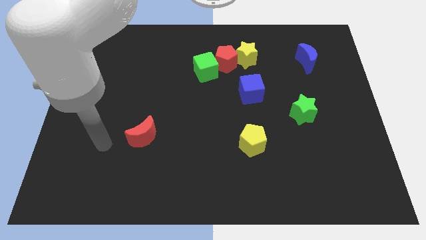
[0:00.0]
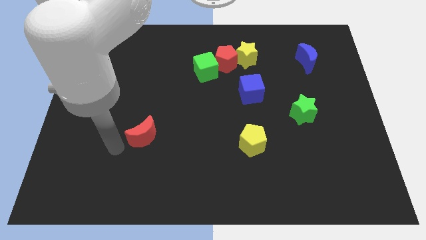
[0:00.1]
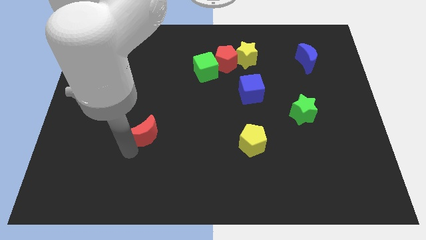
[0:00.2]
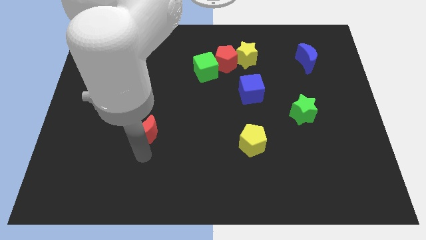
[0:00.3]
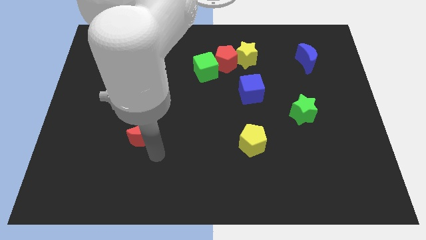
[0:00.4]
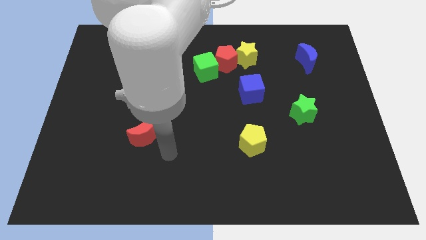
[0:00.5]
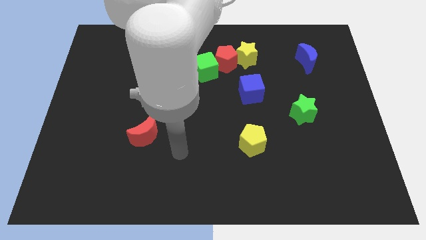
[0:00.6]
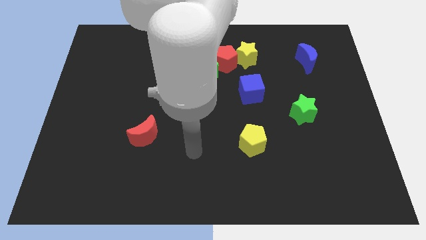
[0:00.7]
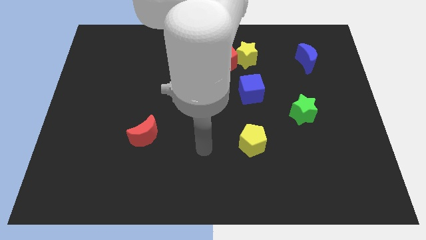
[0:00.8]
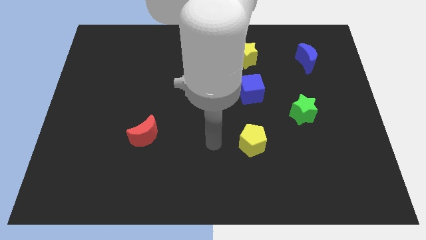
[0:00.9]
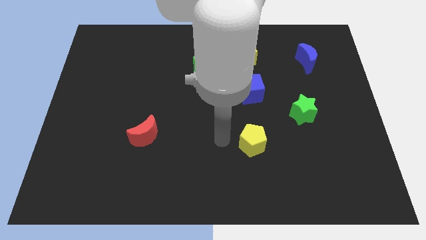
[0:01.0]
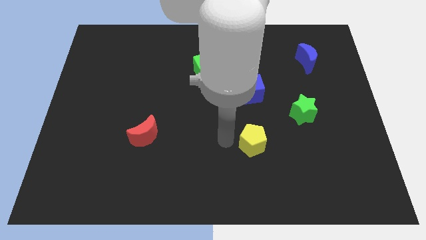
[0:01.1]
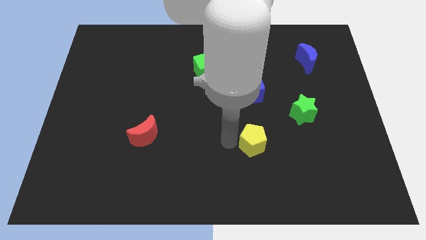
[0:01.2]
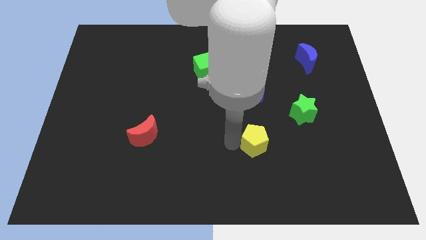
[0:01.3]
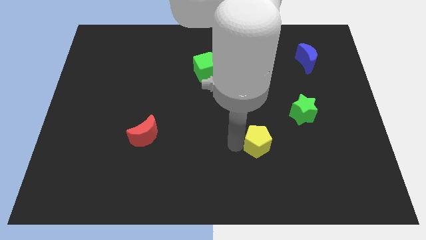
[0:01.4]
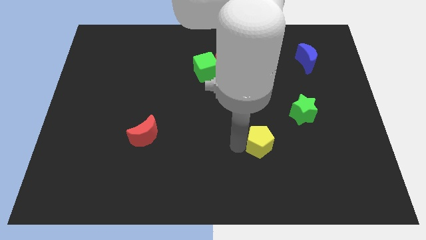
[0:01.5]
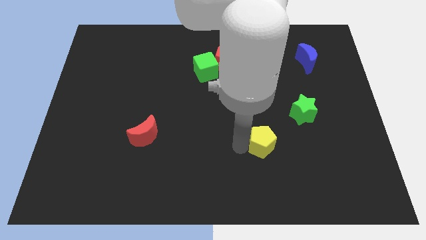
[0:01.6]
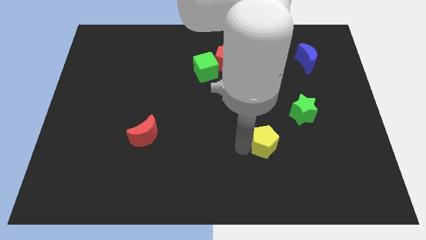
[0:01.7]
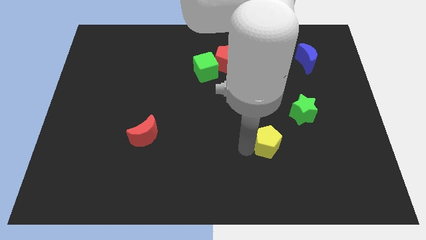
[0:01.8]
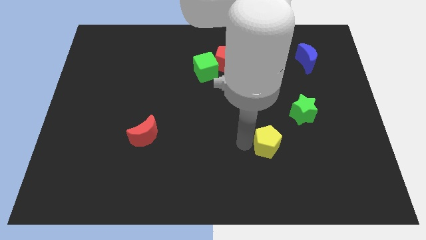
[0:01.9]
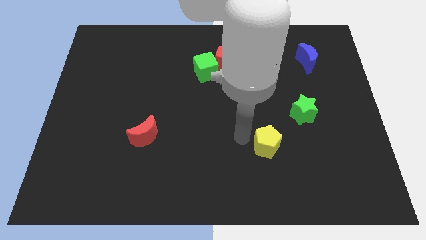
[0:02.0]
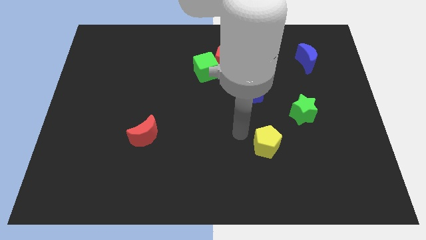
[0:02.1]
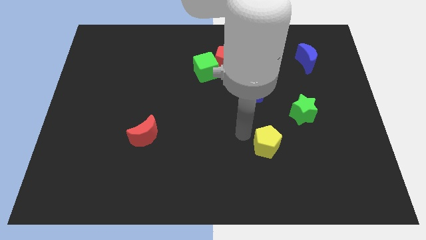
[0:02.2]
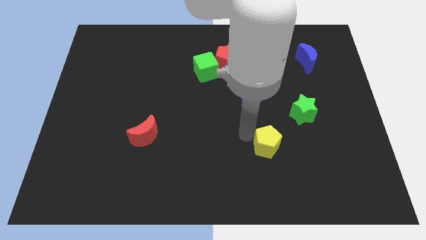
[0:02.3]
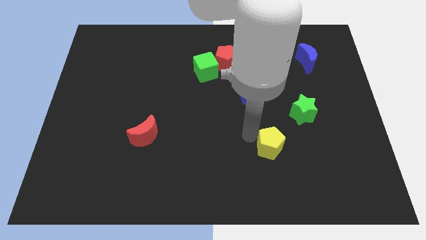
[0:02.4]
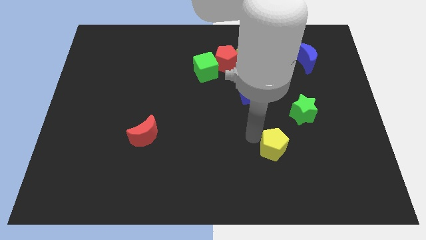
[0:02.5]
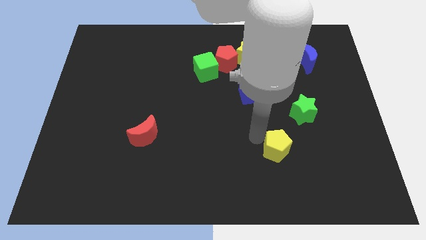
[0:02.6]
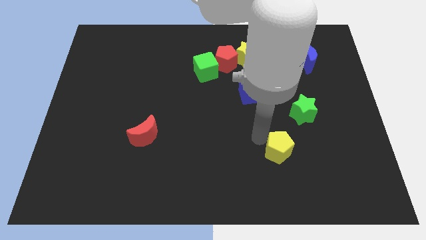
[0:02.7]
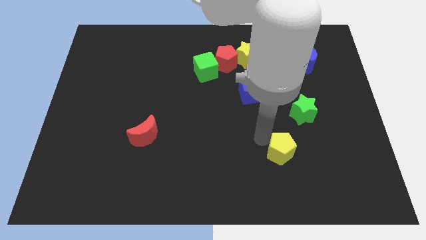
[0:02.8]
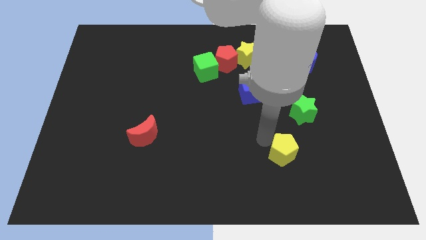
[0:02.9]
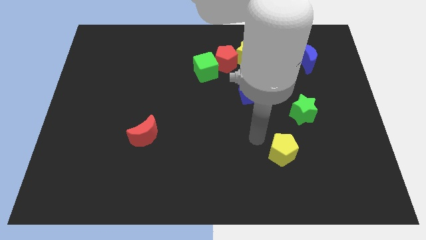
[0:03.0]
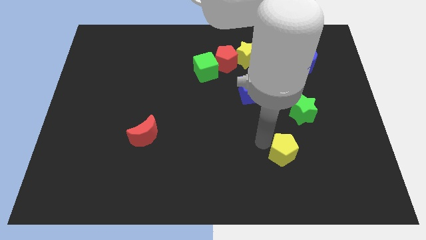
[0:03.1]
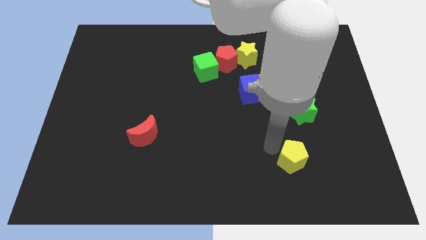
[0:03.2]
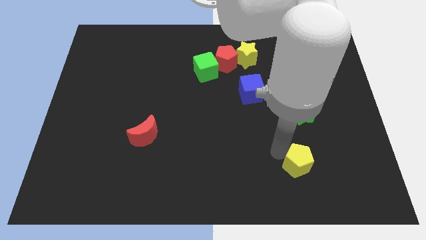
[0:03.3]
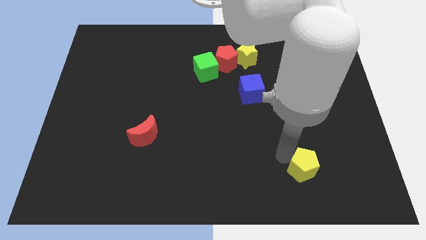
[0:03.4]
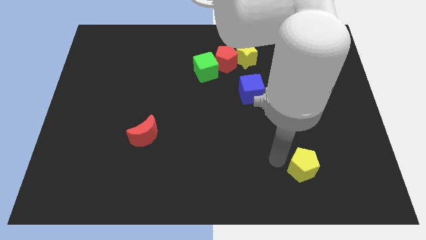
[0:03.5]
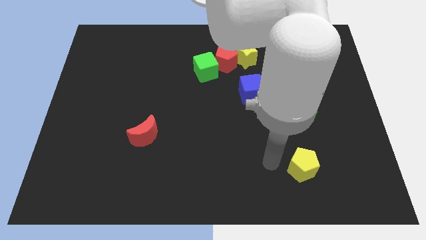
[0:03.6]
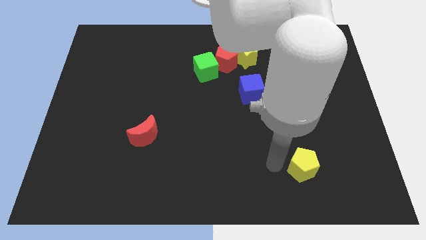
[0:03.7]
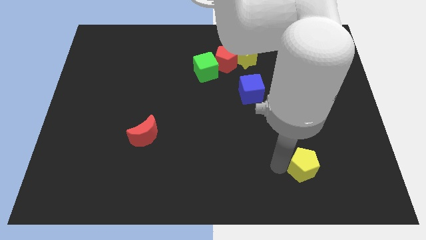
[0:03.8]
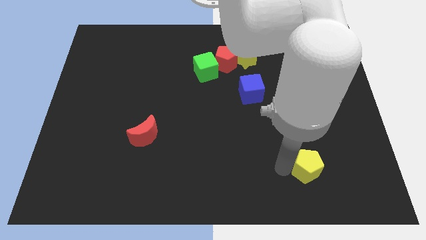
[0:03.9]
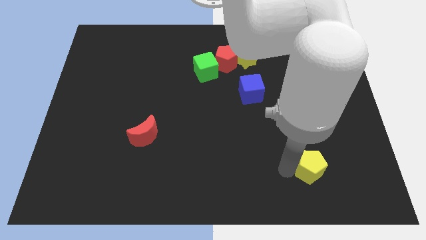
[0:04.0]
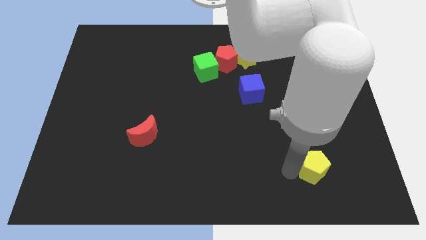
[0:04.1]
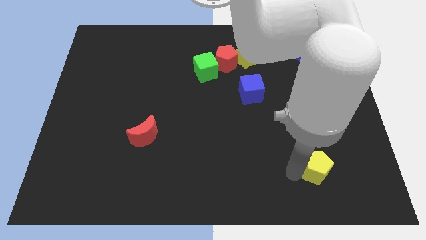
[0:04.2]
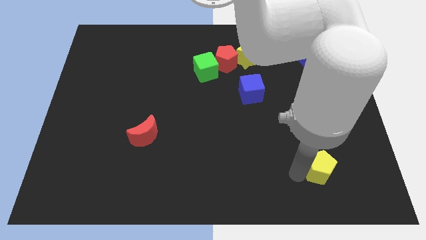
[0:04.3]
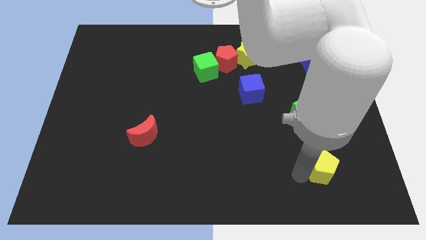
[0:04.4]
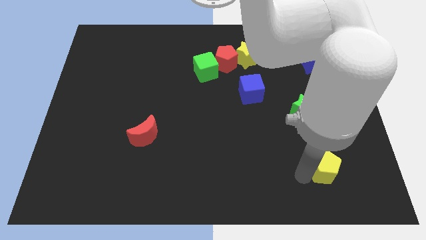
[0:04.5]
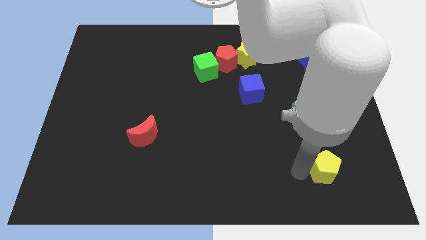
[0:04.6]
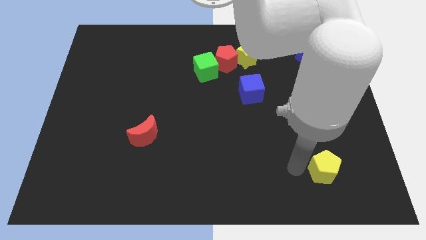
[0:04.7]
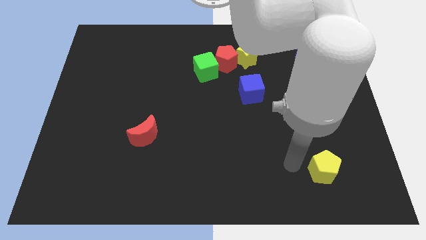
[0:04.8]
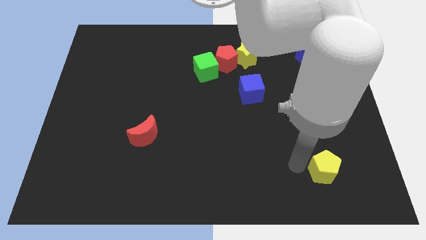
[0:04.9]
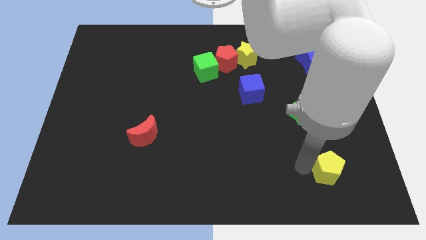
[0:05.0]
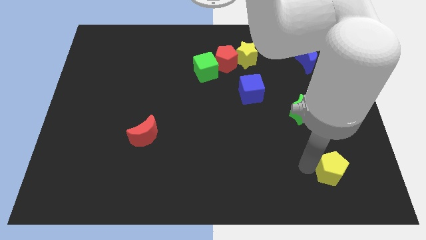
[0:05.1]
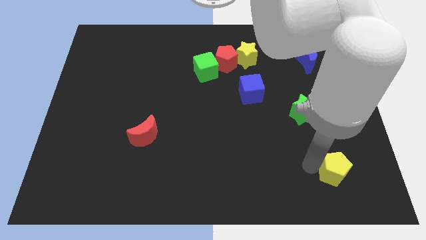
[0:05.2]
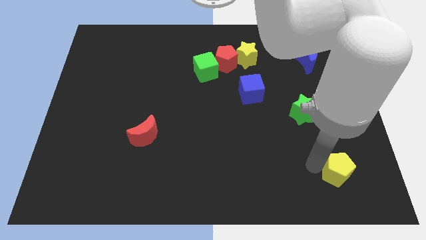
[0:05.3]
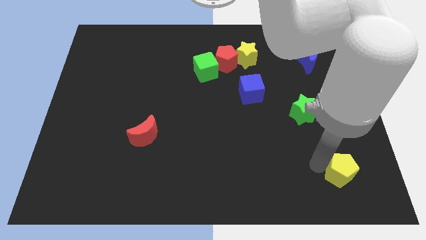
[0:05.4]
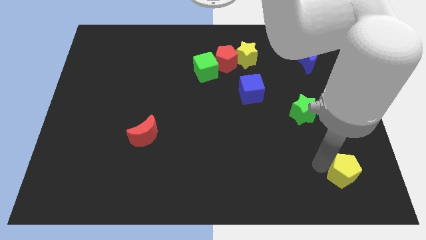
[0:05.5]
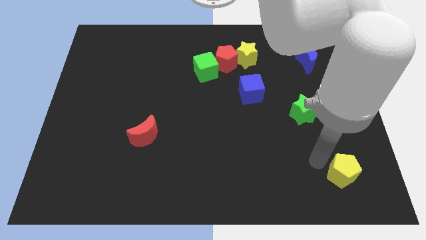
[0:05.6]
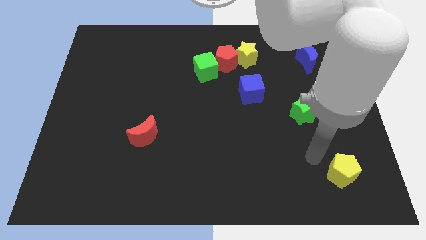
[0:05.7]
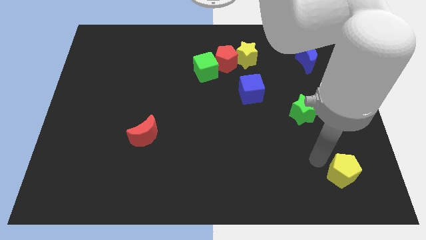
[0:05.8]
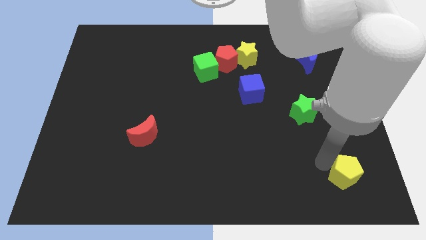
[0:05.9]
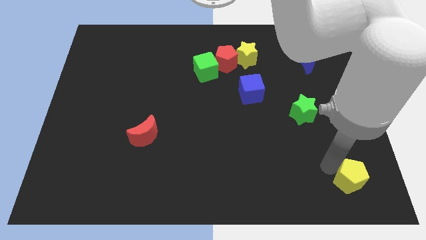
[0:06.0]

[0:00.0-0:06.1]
slide the yellow pentagon to the bottom right
